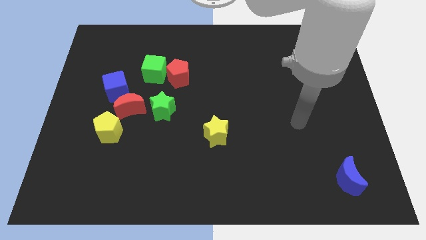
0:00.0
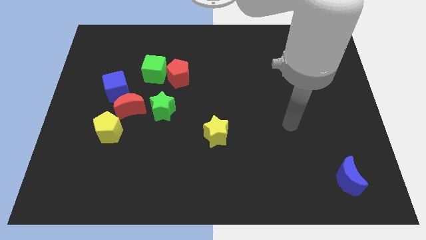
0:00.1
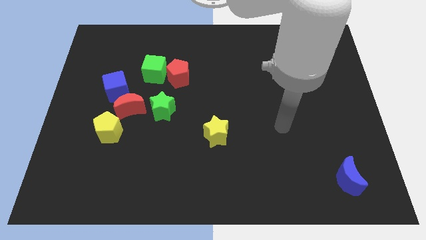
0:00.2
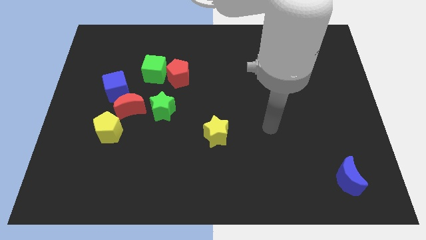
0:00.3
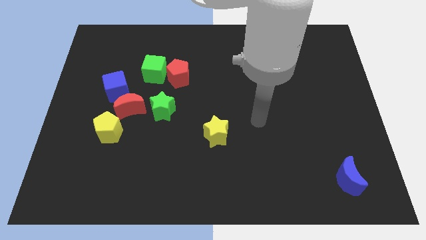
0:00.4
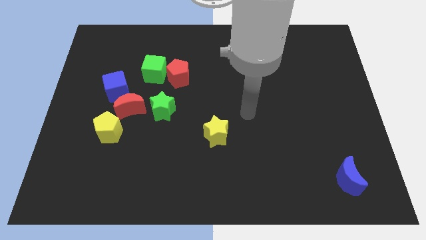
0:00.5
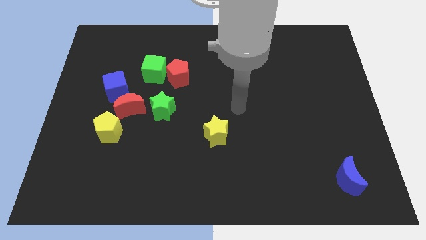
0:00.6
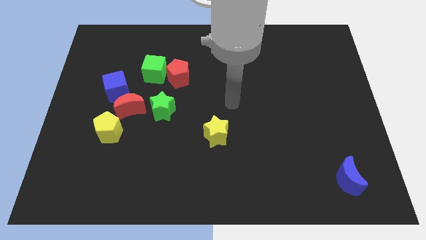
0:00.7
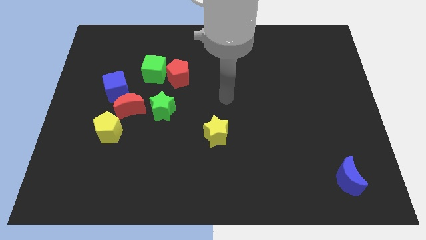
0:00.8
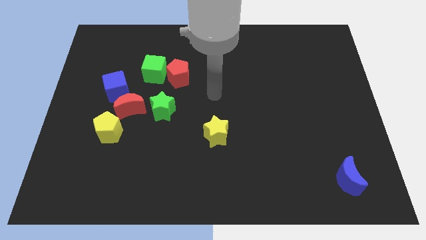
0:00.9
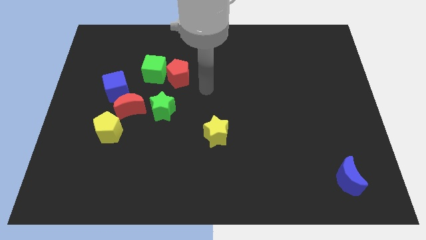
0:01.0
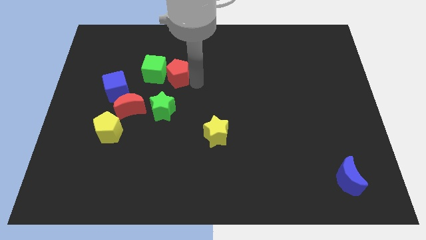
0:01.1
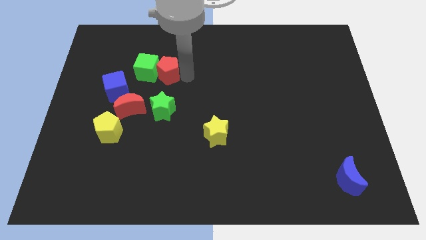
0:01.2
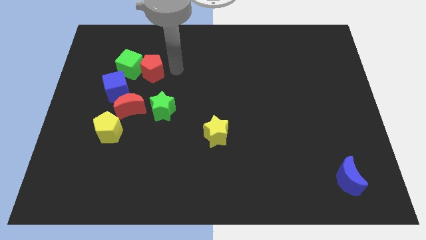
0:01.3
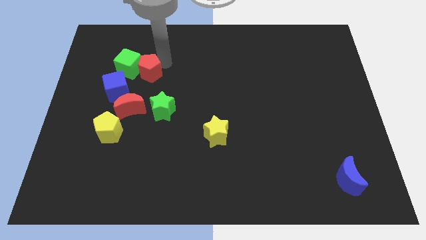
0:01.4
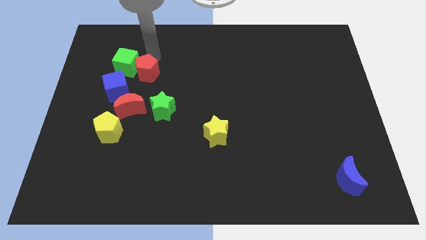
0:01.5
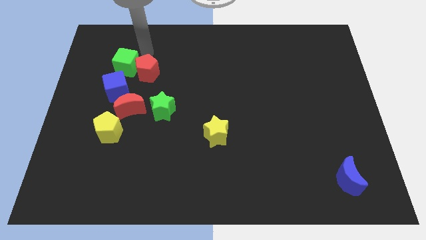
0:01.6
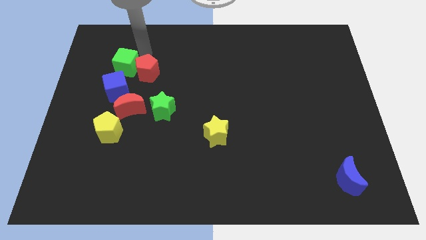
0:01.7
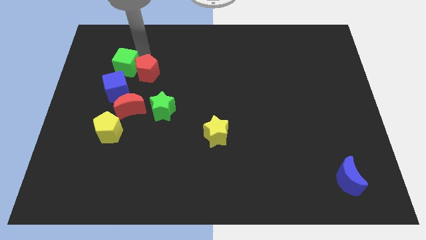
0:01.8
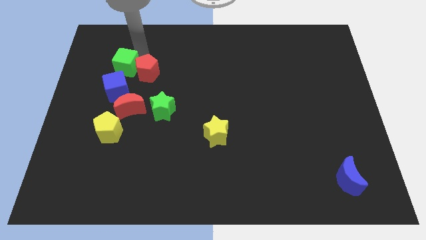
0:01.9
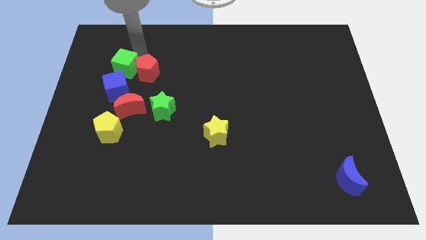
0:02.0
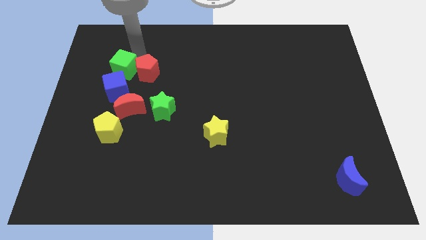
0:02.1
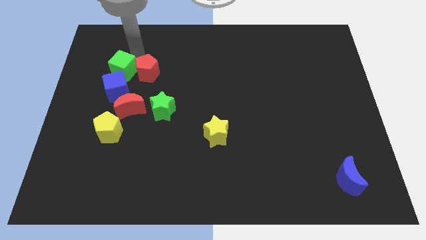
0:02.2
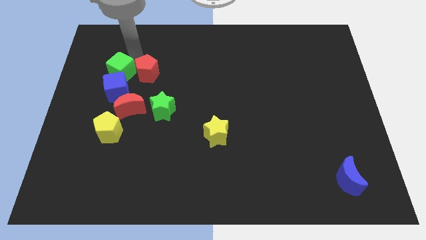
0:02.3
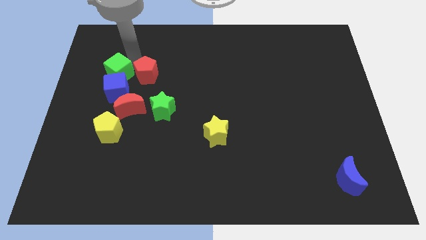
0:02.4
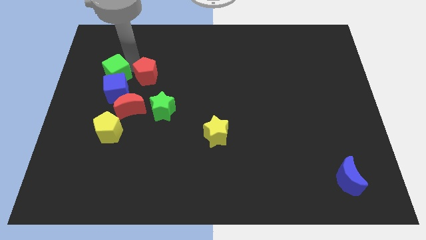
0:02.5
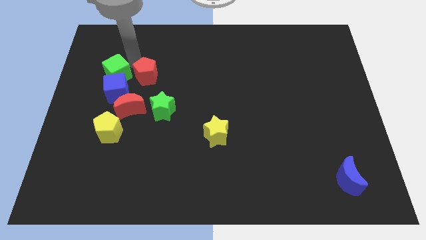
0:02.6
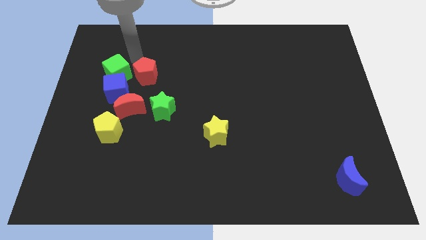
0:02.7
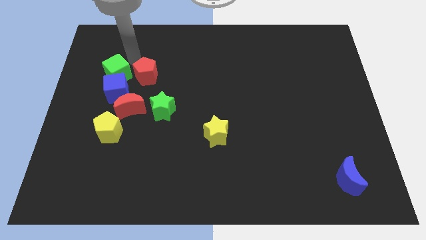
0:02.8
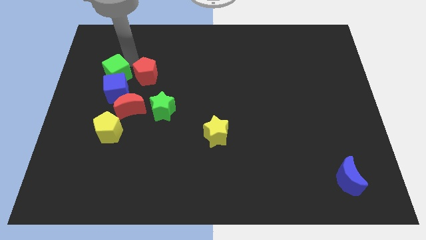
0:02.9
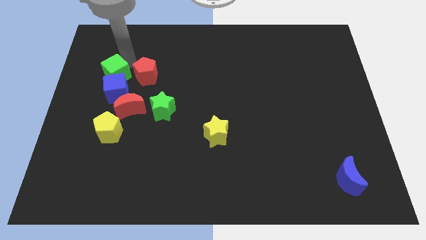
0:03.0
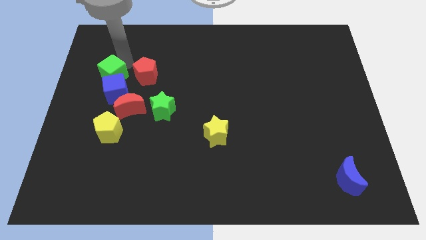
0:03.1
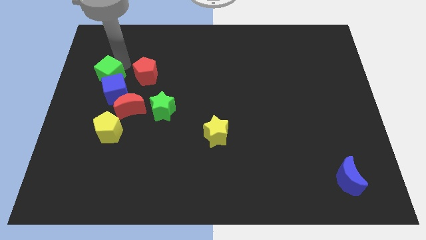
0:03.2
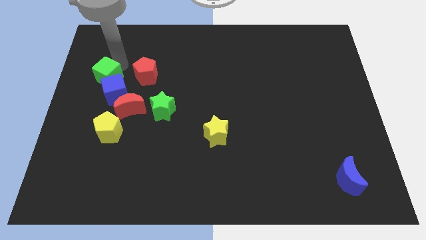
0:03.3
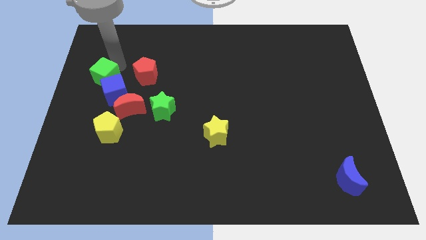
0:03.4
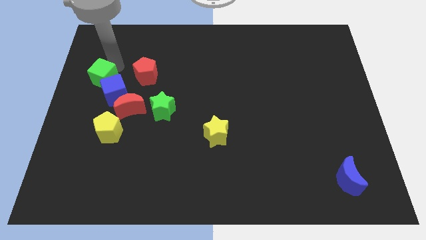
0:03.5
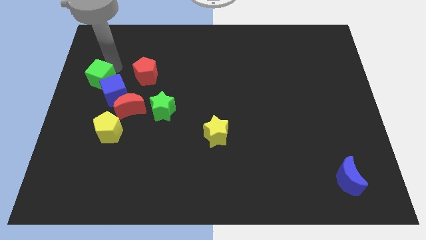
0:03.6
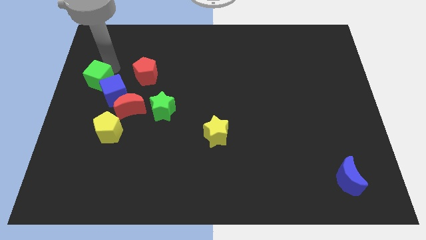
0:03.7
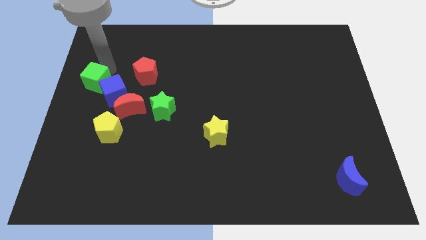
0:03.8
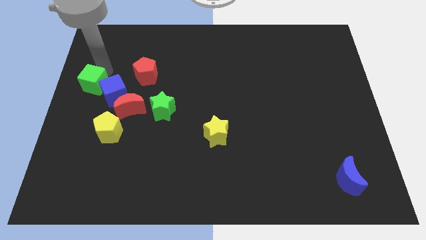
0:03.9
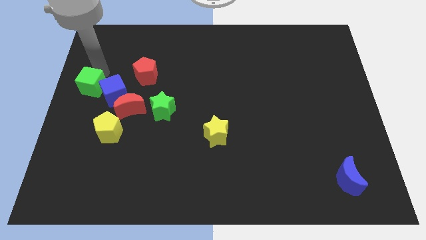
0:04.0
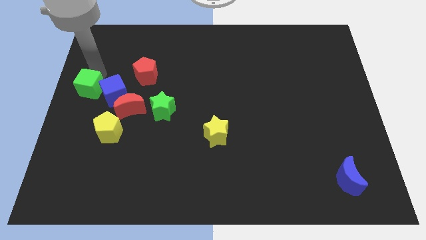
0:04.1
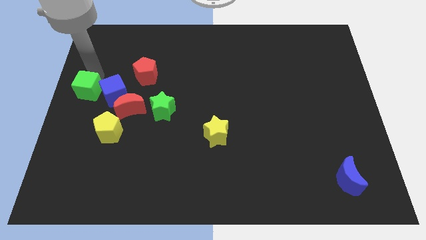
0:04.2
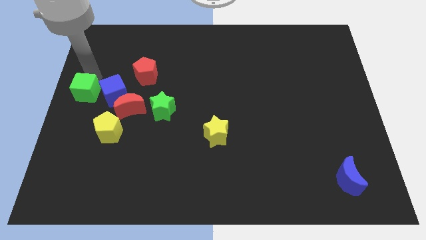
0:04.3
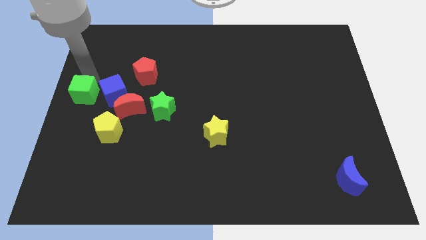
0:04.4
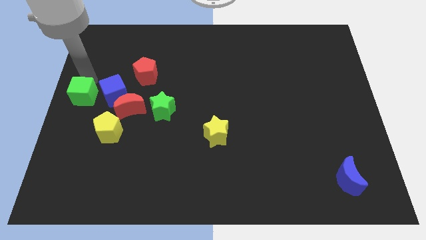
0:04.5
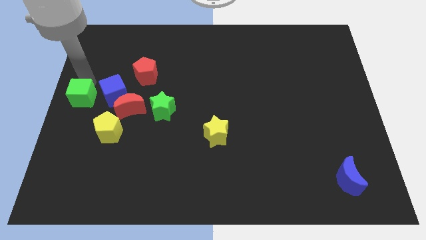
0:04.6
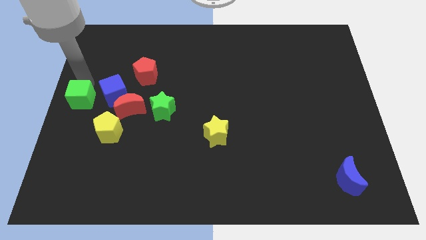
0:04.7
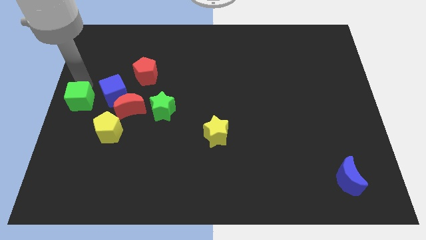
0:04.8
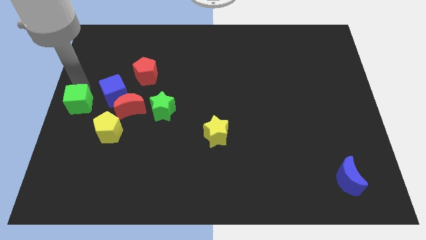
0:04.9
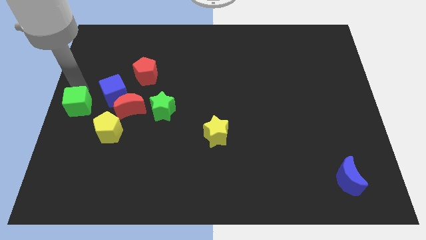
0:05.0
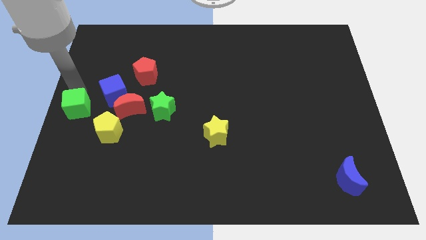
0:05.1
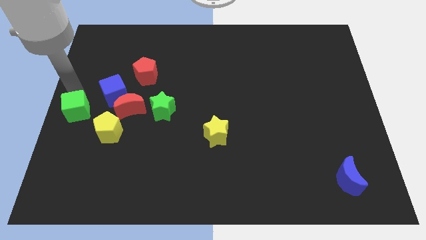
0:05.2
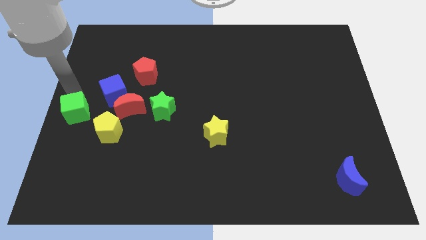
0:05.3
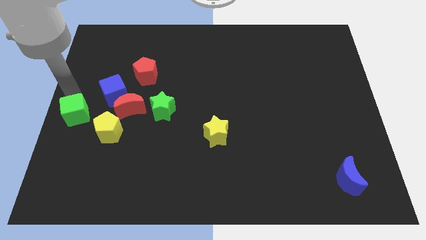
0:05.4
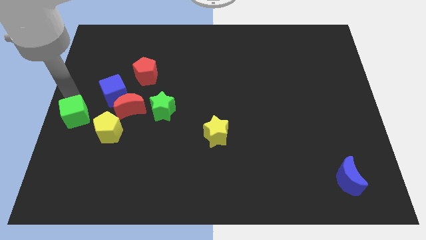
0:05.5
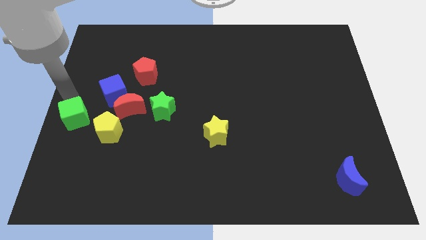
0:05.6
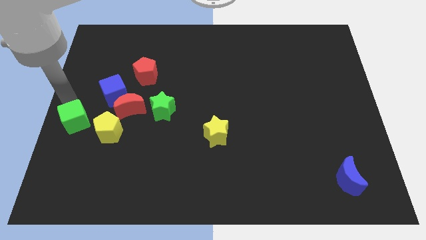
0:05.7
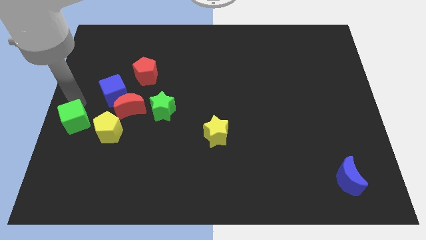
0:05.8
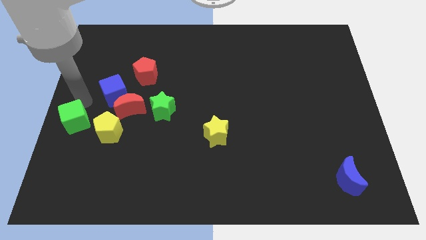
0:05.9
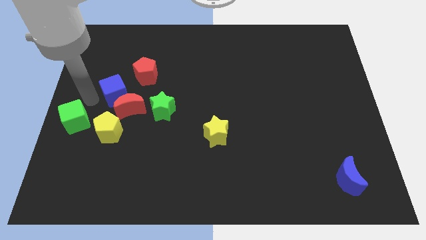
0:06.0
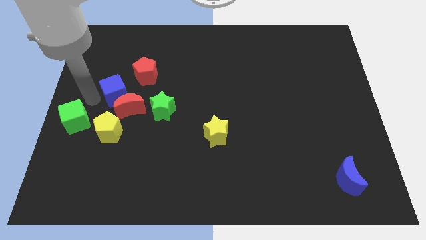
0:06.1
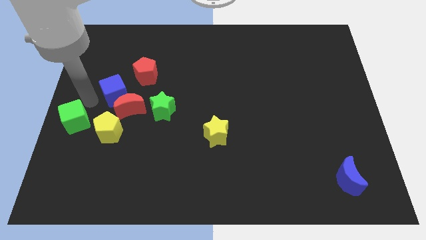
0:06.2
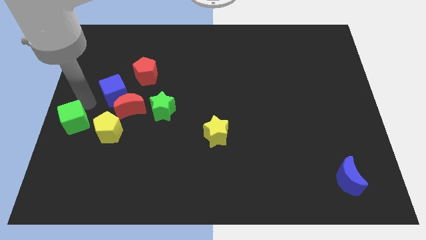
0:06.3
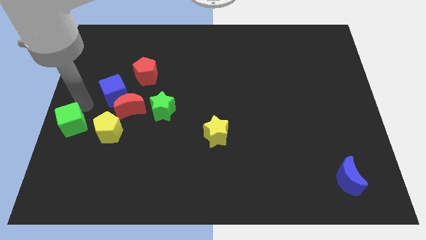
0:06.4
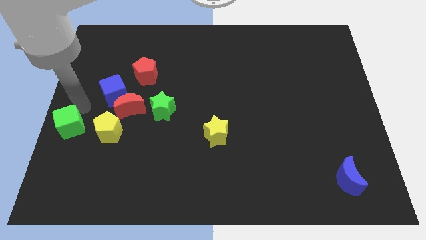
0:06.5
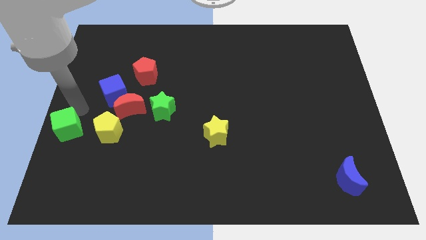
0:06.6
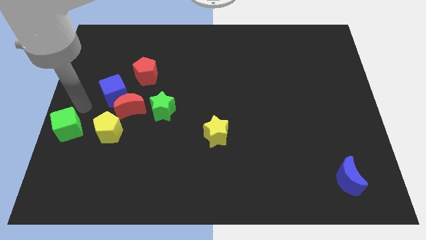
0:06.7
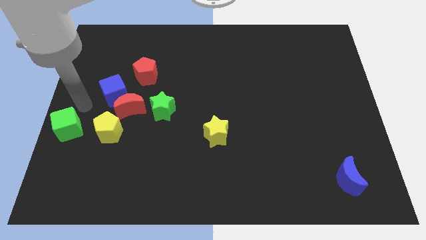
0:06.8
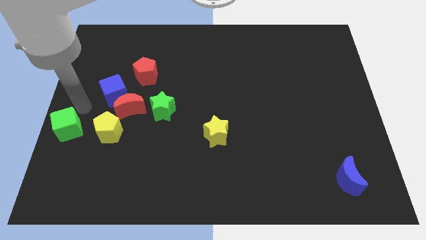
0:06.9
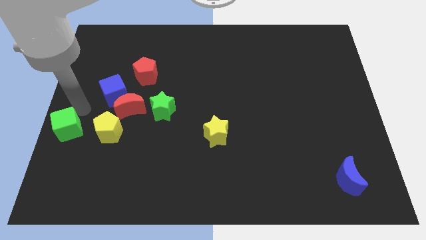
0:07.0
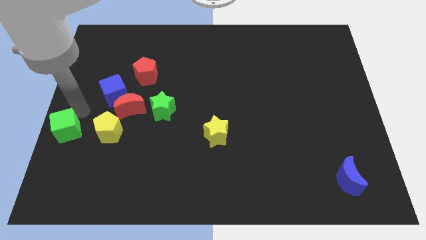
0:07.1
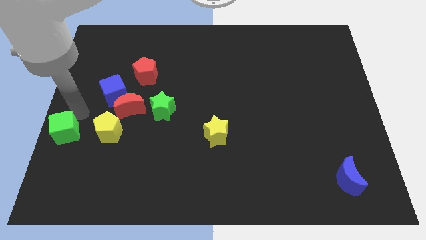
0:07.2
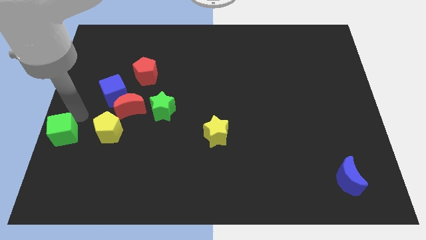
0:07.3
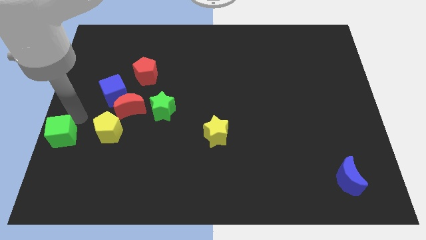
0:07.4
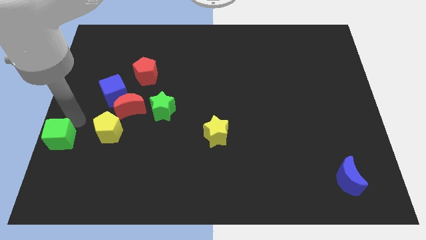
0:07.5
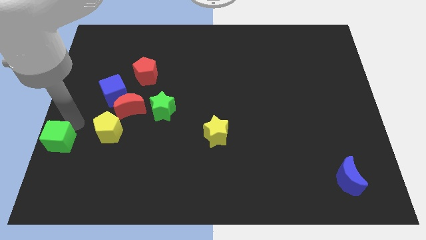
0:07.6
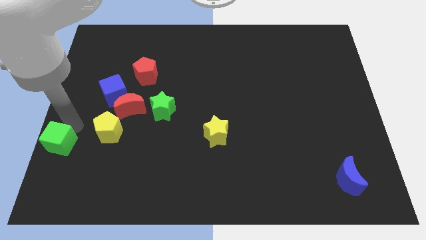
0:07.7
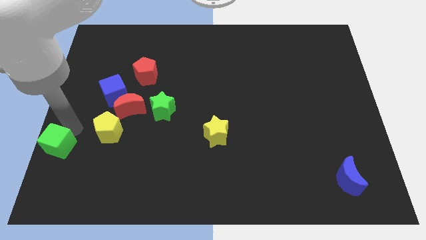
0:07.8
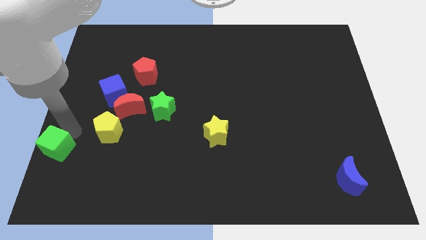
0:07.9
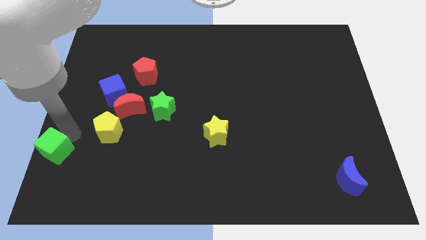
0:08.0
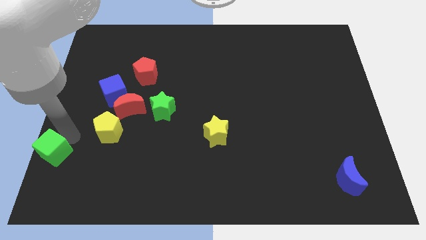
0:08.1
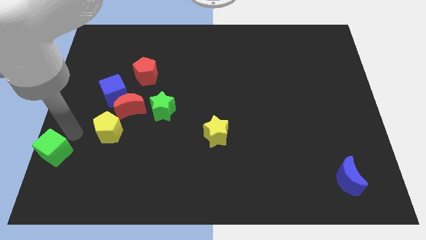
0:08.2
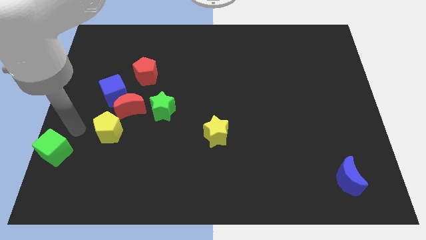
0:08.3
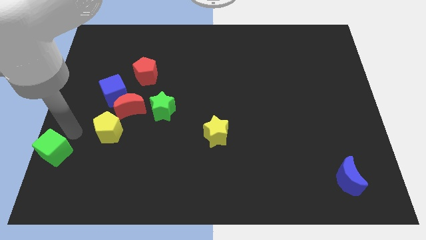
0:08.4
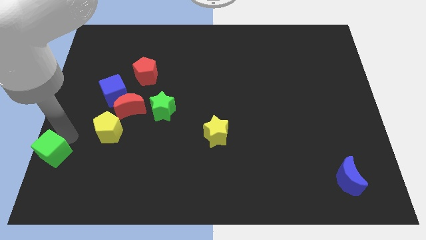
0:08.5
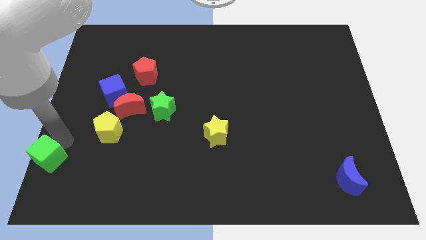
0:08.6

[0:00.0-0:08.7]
push the green cube to the bottom left corner
